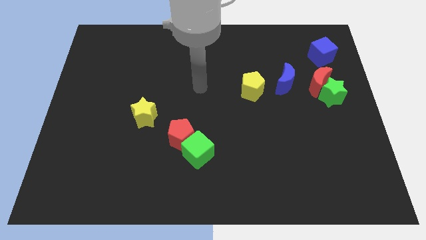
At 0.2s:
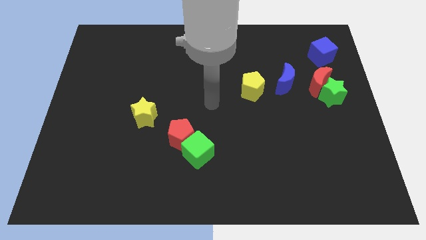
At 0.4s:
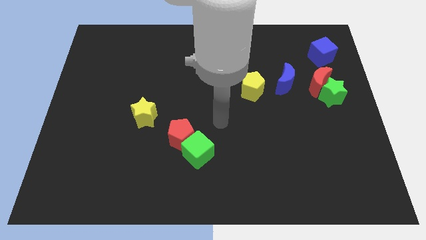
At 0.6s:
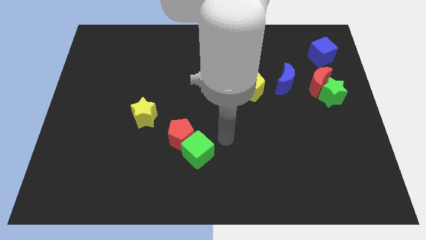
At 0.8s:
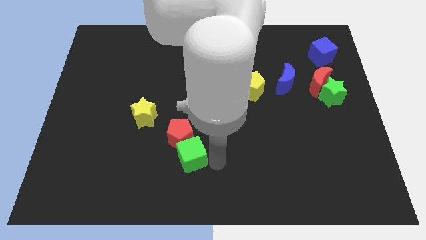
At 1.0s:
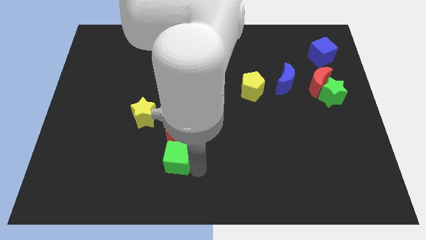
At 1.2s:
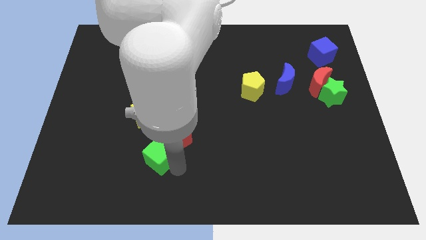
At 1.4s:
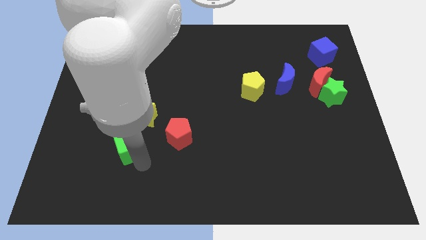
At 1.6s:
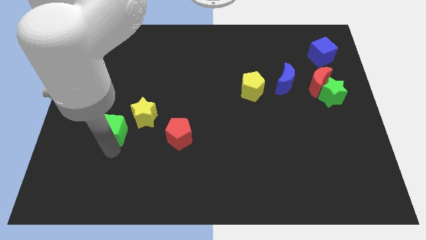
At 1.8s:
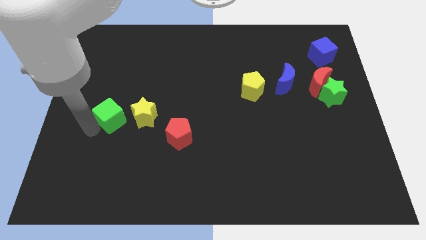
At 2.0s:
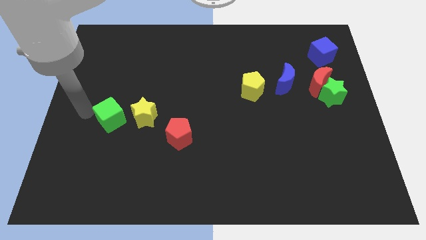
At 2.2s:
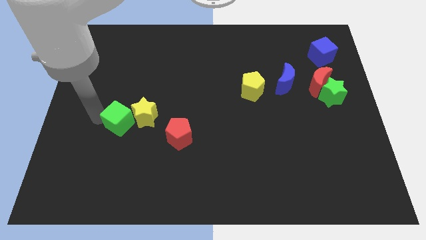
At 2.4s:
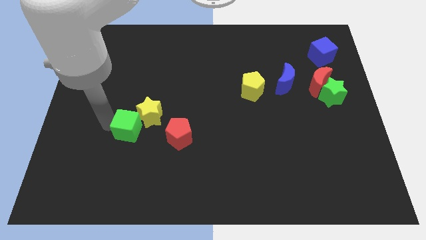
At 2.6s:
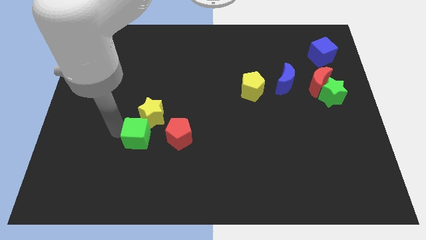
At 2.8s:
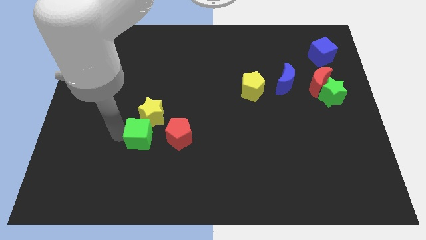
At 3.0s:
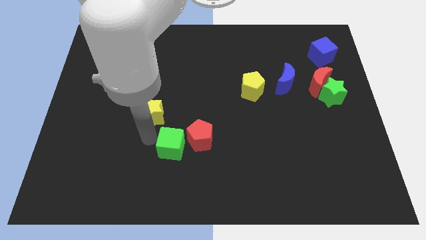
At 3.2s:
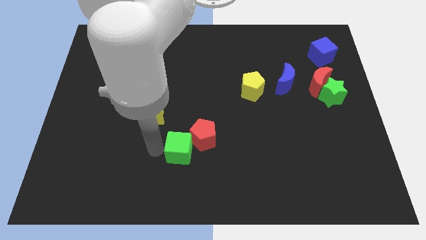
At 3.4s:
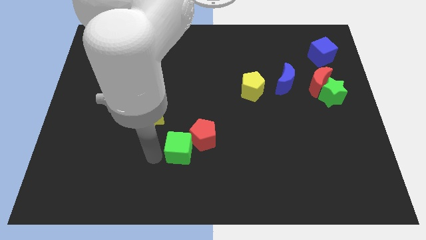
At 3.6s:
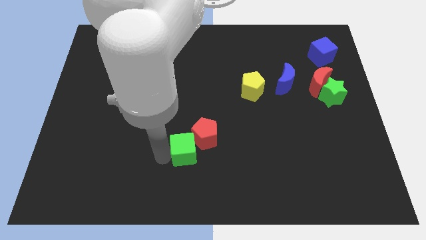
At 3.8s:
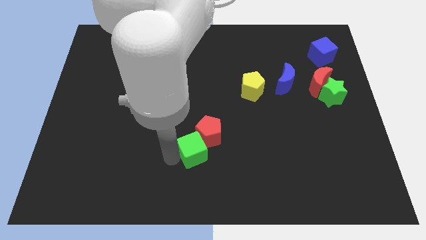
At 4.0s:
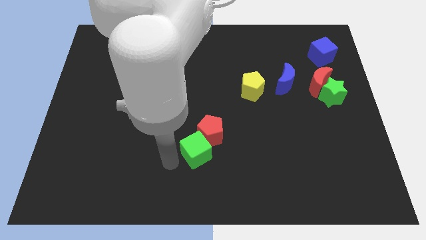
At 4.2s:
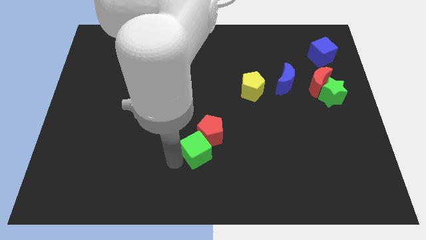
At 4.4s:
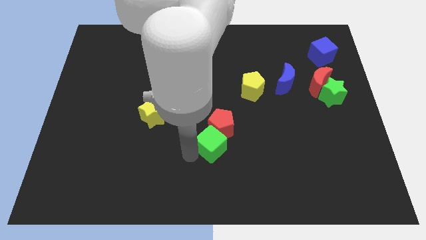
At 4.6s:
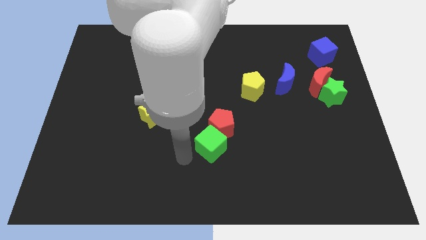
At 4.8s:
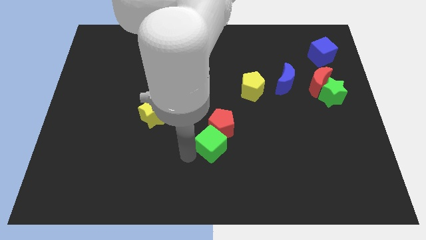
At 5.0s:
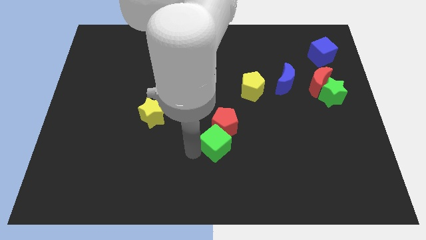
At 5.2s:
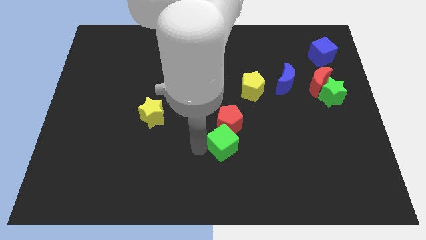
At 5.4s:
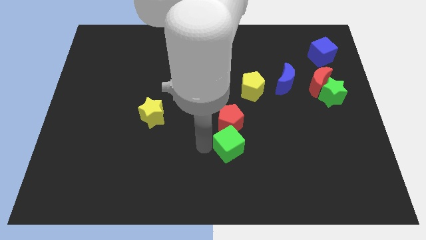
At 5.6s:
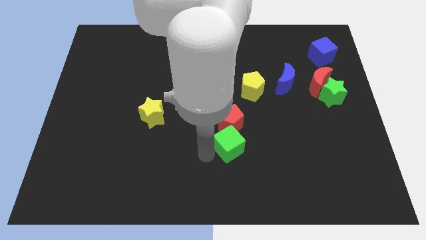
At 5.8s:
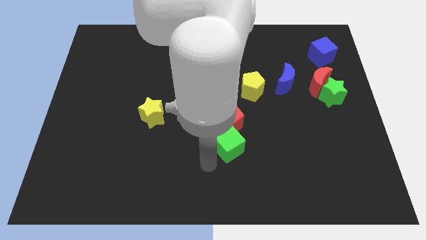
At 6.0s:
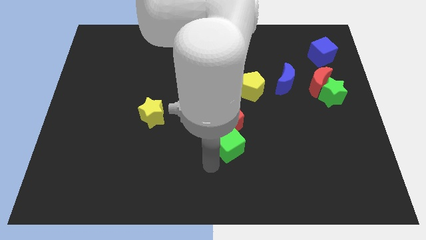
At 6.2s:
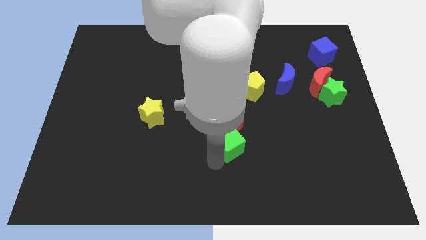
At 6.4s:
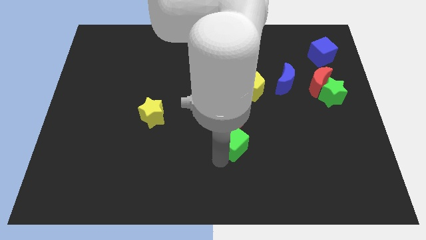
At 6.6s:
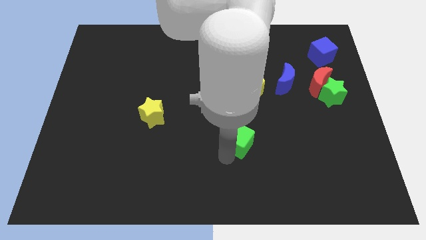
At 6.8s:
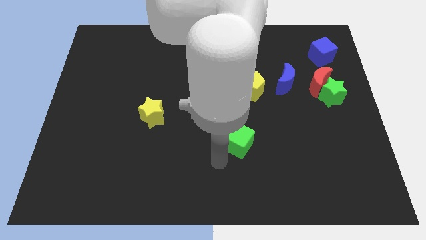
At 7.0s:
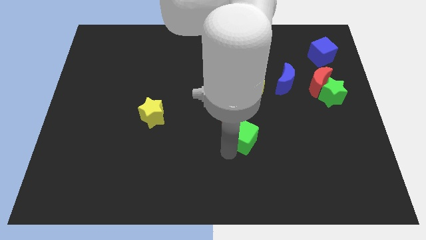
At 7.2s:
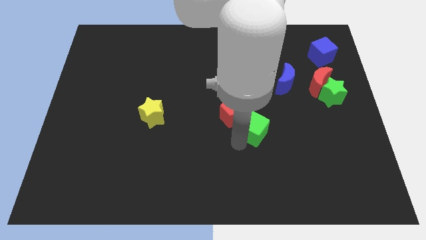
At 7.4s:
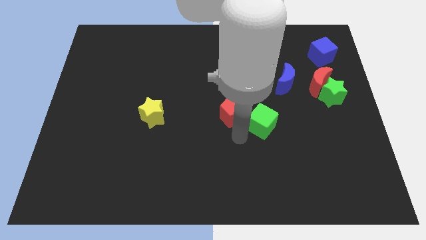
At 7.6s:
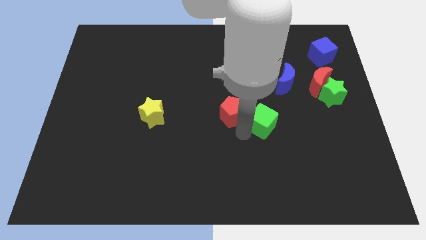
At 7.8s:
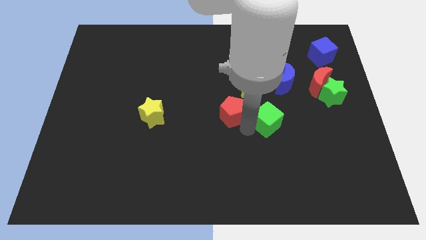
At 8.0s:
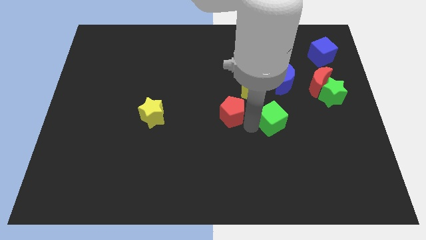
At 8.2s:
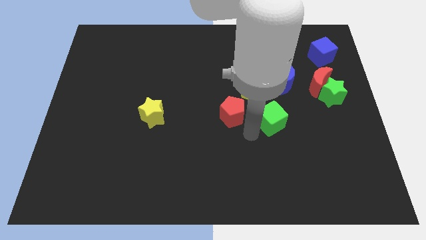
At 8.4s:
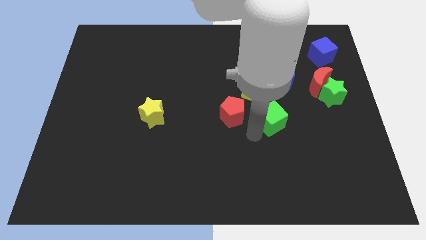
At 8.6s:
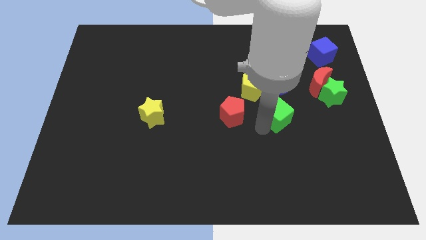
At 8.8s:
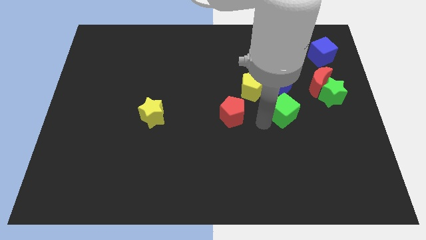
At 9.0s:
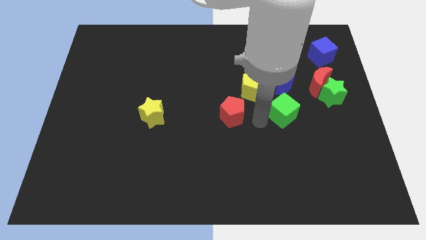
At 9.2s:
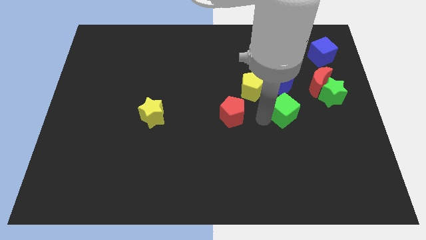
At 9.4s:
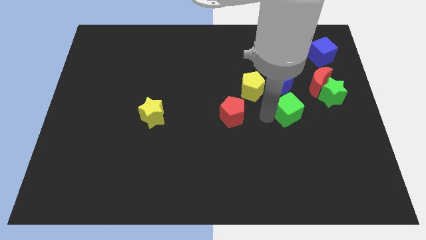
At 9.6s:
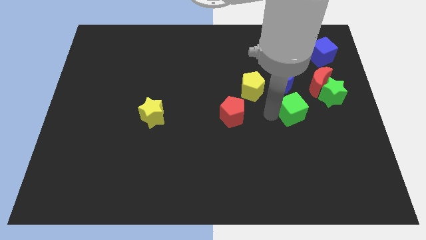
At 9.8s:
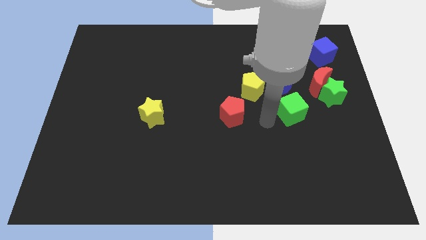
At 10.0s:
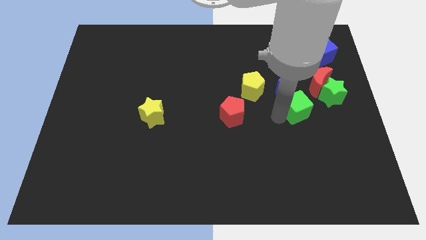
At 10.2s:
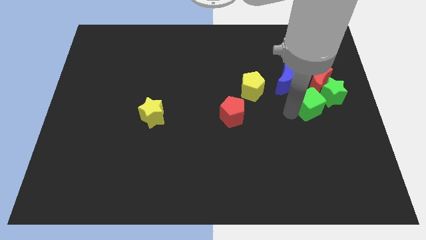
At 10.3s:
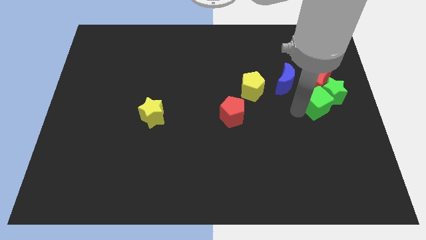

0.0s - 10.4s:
push the green cube close to the green star

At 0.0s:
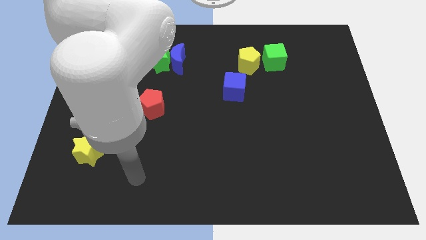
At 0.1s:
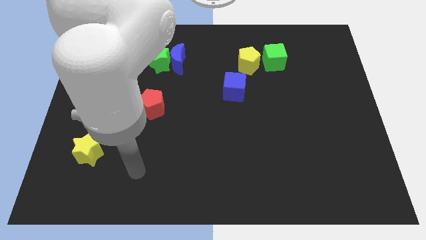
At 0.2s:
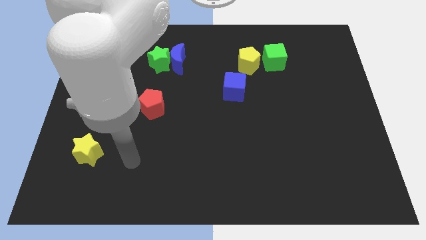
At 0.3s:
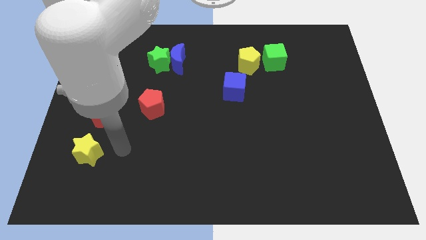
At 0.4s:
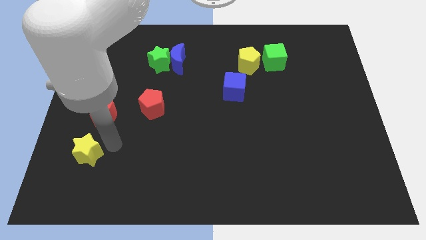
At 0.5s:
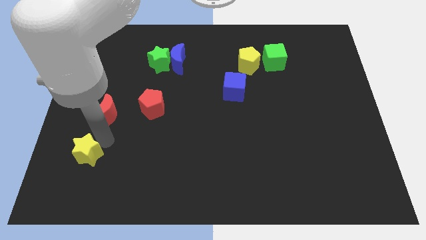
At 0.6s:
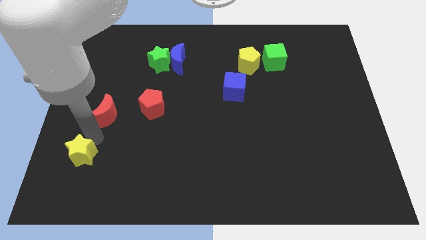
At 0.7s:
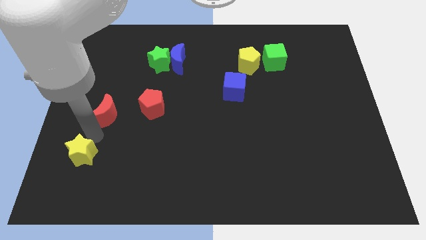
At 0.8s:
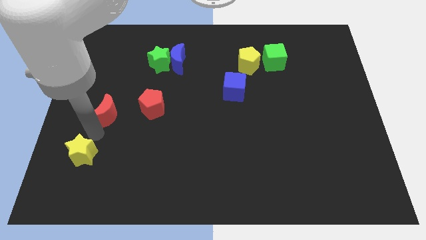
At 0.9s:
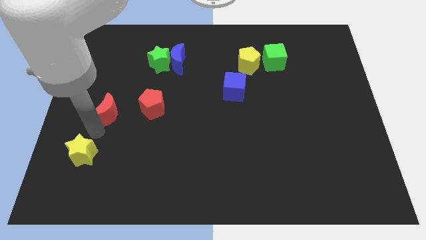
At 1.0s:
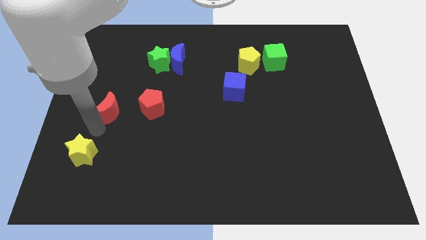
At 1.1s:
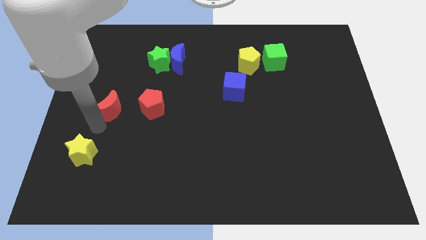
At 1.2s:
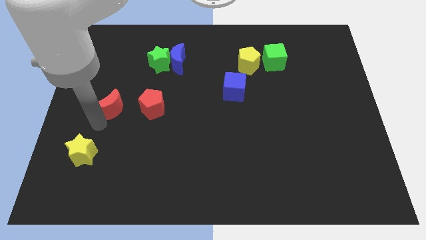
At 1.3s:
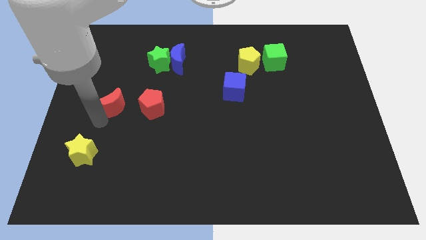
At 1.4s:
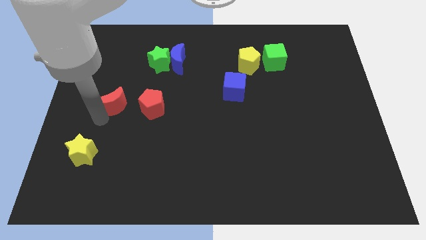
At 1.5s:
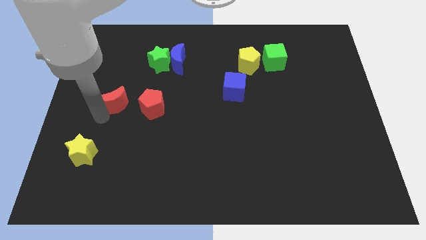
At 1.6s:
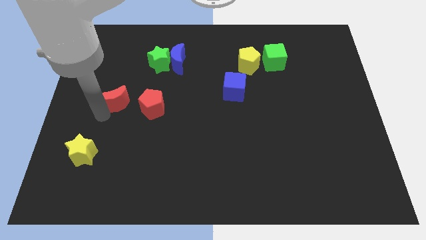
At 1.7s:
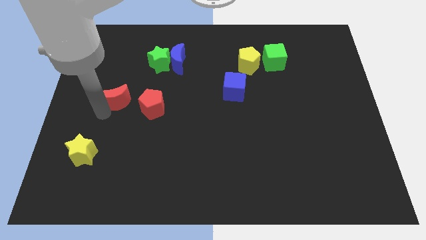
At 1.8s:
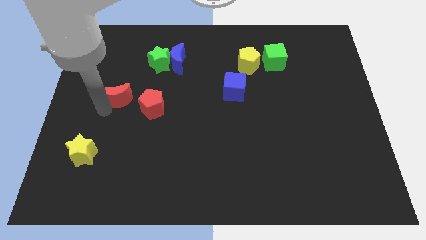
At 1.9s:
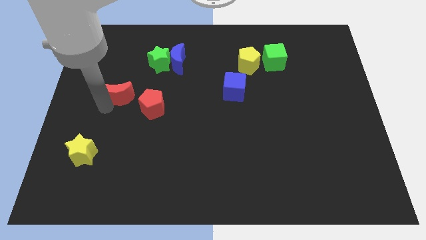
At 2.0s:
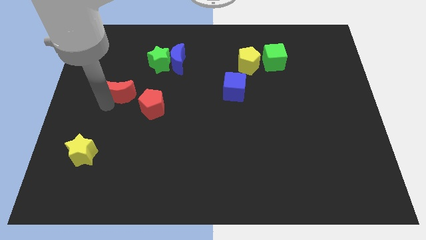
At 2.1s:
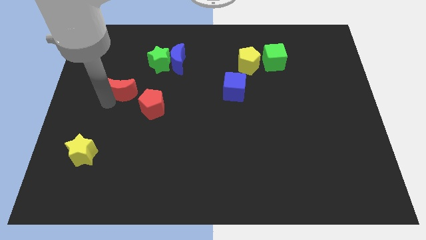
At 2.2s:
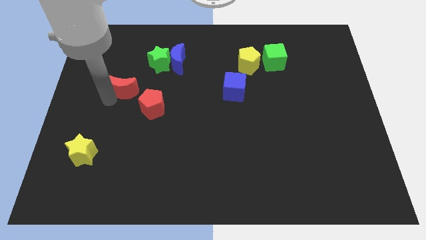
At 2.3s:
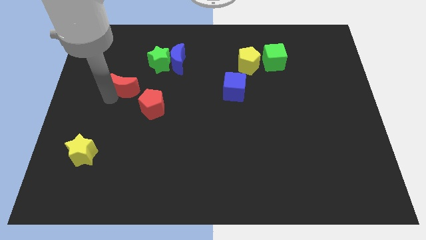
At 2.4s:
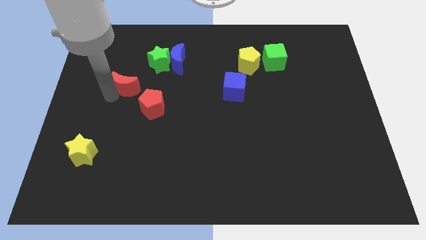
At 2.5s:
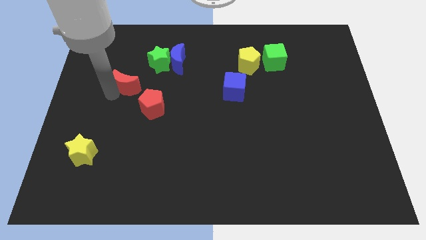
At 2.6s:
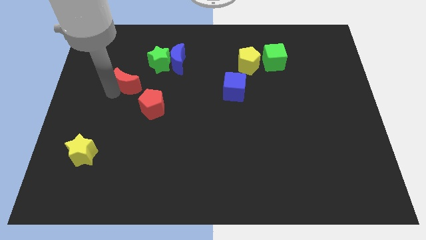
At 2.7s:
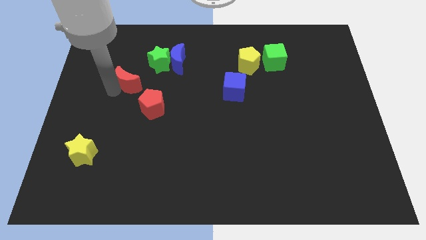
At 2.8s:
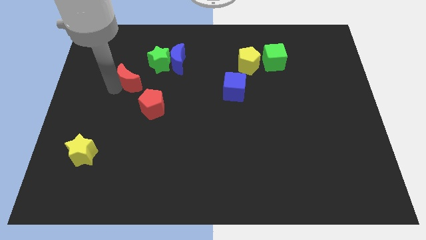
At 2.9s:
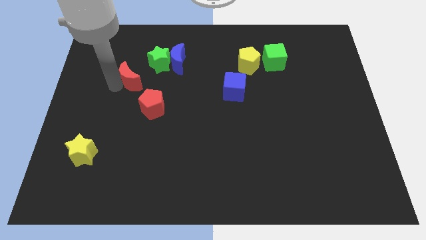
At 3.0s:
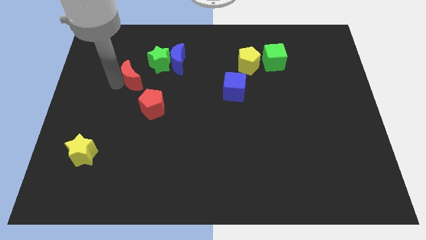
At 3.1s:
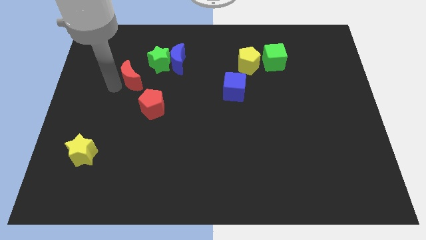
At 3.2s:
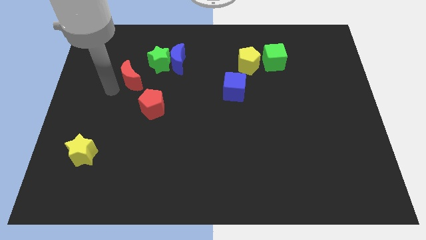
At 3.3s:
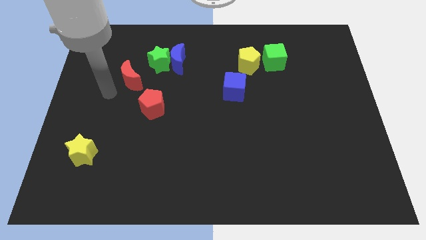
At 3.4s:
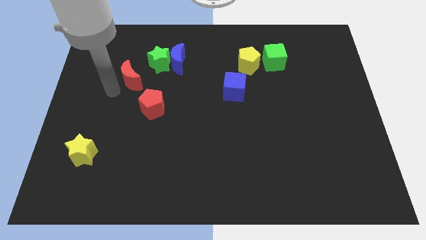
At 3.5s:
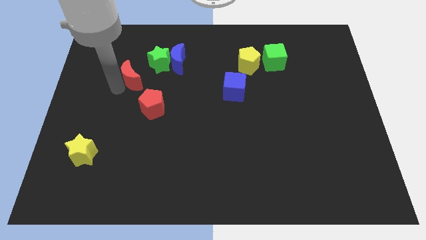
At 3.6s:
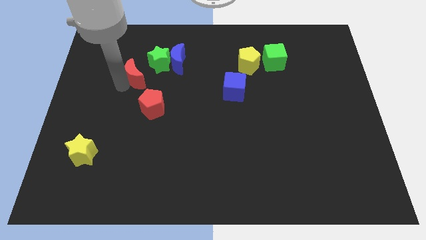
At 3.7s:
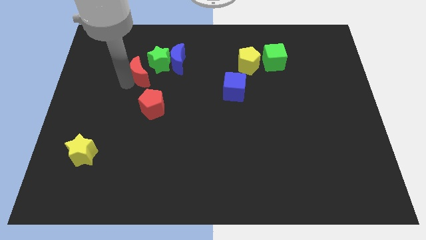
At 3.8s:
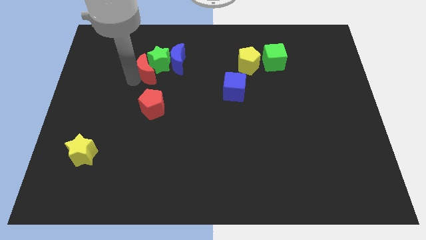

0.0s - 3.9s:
push the red moon close to the green star
